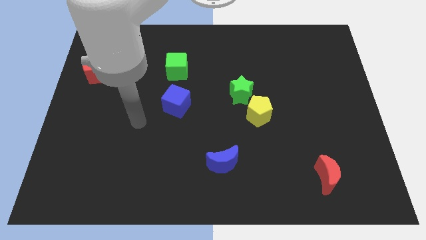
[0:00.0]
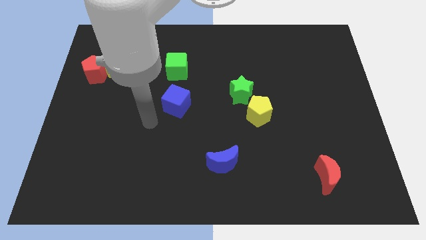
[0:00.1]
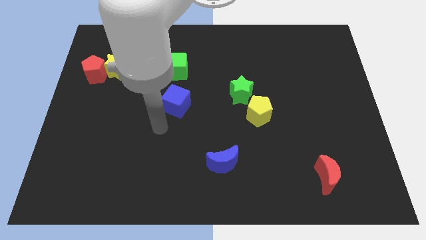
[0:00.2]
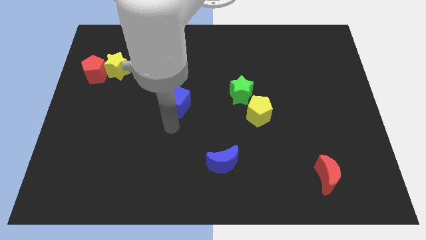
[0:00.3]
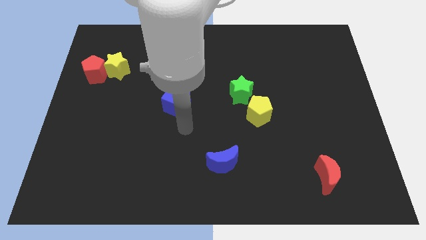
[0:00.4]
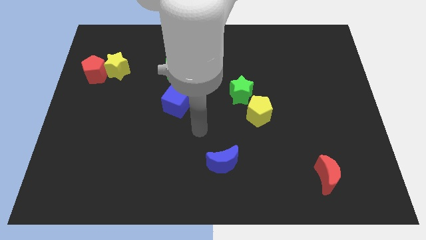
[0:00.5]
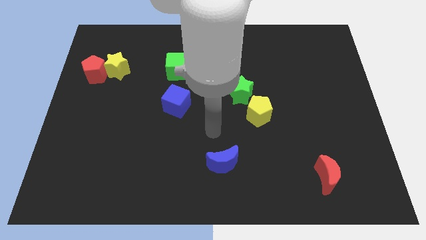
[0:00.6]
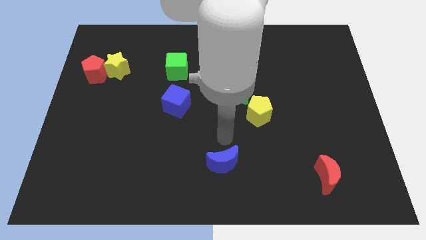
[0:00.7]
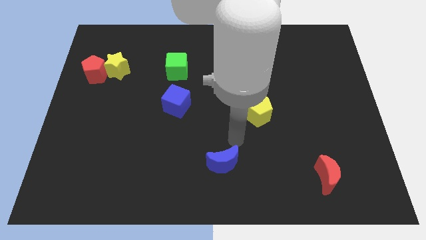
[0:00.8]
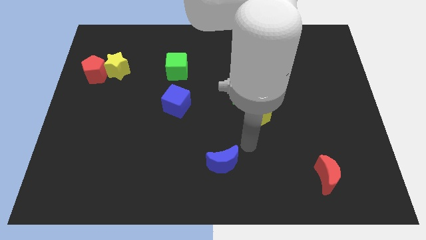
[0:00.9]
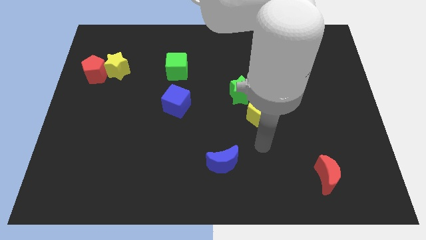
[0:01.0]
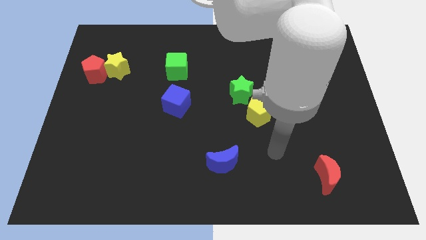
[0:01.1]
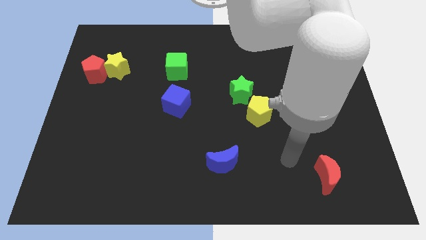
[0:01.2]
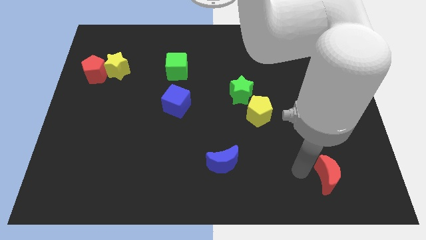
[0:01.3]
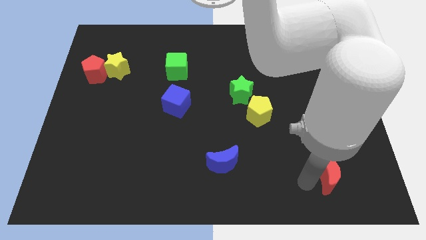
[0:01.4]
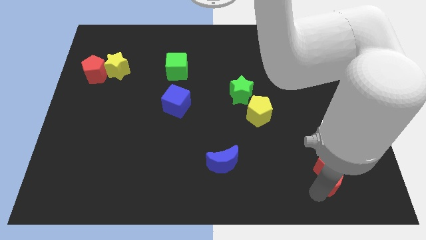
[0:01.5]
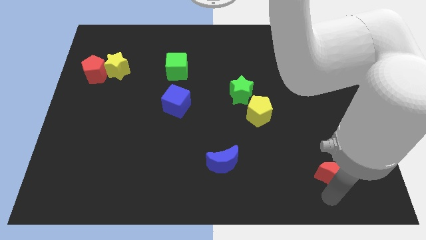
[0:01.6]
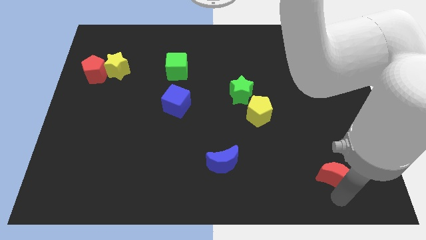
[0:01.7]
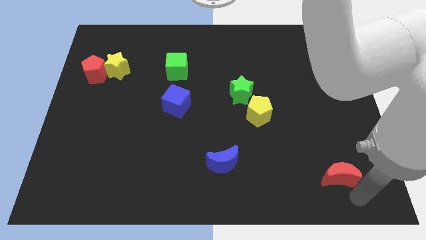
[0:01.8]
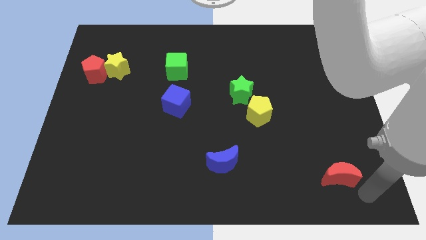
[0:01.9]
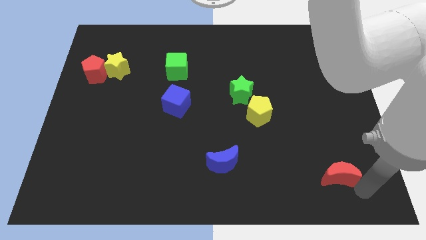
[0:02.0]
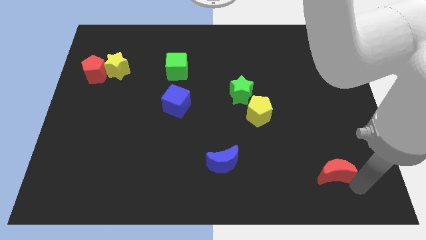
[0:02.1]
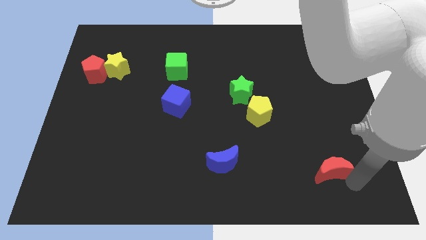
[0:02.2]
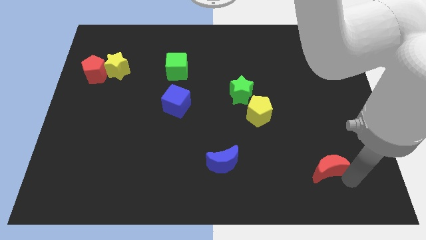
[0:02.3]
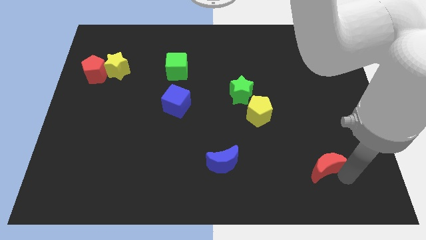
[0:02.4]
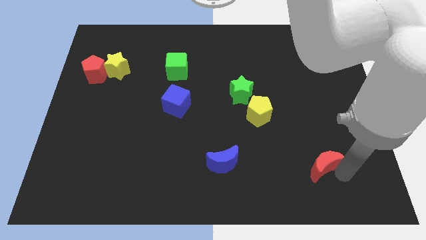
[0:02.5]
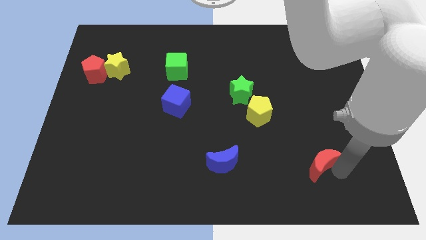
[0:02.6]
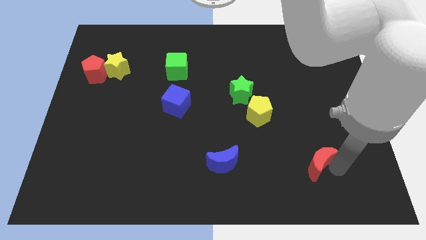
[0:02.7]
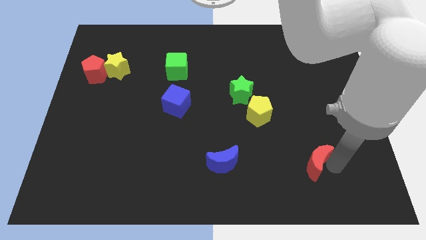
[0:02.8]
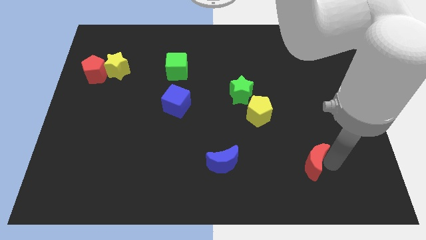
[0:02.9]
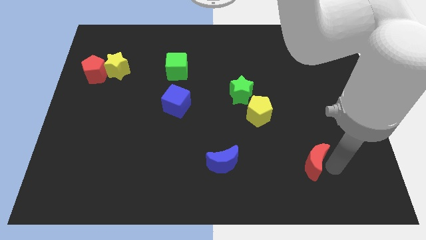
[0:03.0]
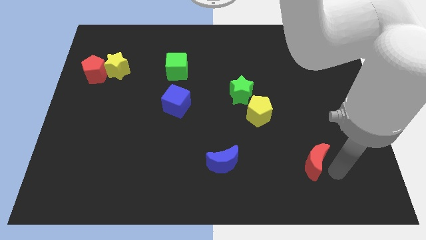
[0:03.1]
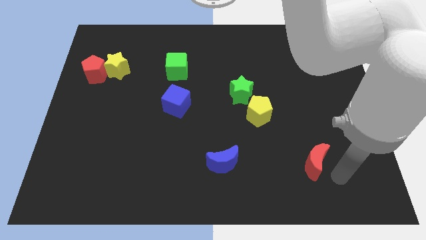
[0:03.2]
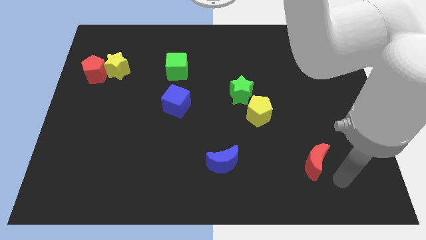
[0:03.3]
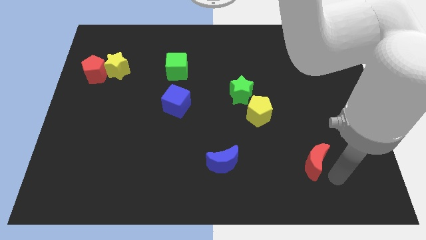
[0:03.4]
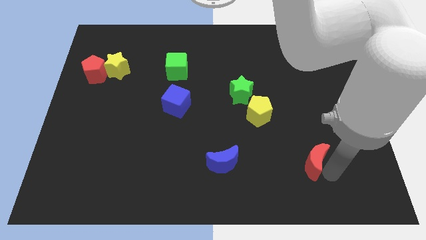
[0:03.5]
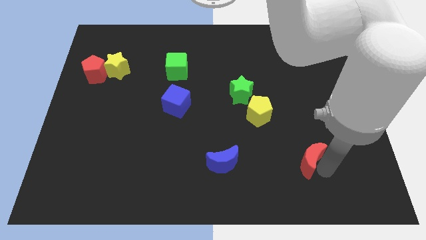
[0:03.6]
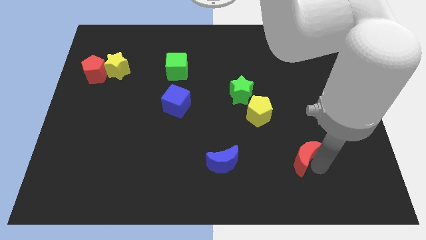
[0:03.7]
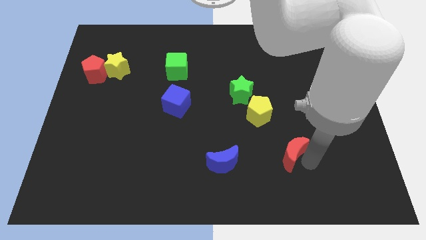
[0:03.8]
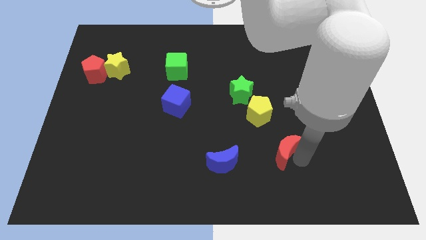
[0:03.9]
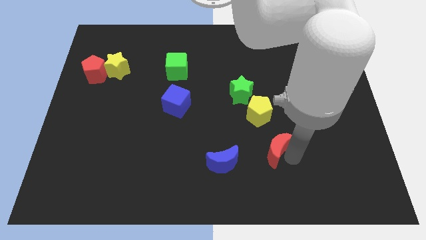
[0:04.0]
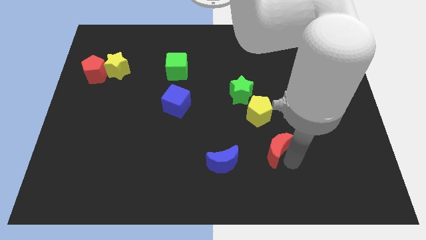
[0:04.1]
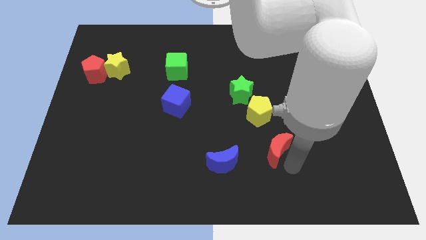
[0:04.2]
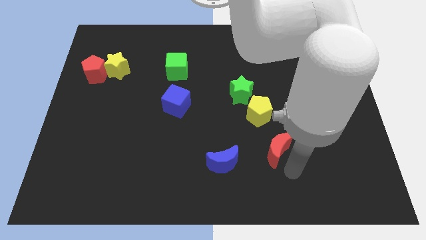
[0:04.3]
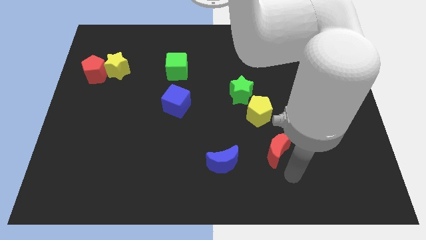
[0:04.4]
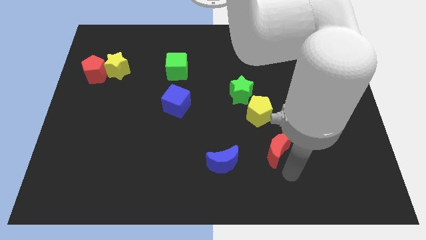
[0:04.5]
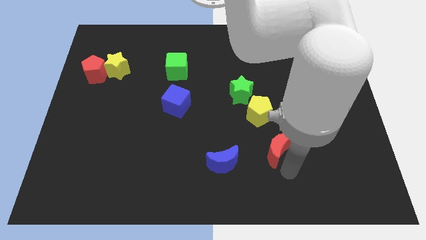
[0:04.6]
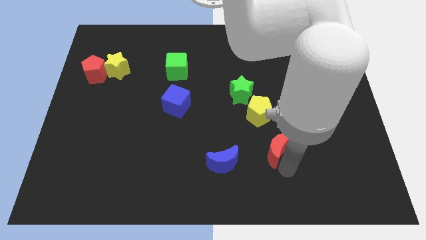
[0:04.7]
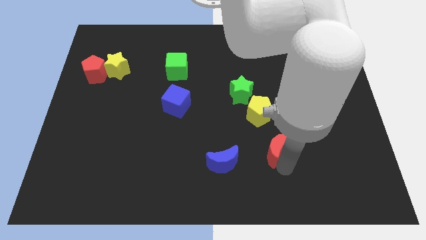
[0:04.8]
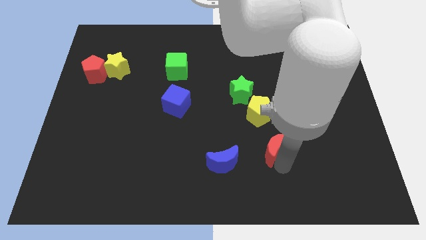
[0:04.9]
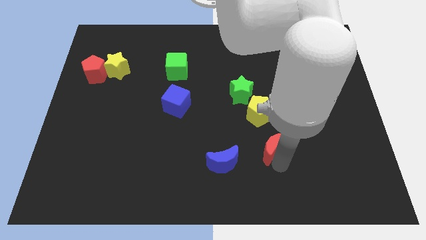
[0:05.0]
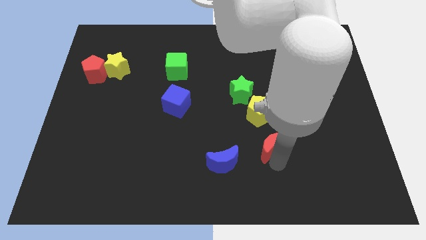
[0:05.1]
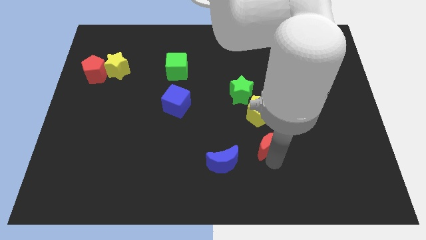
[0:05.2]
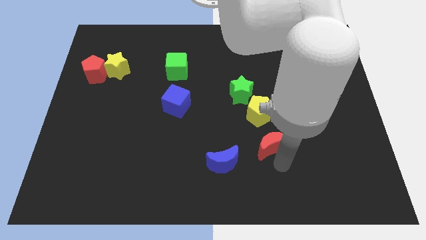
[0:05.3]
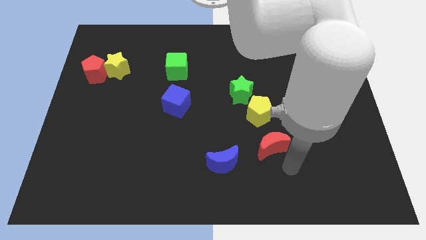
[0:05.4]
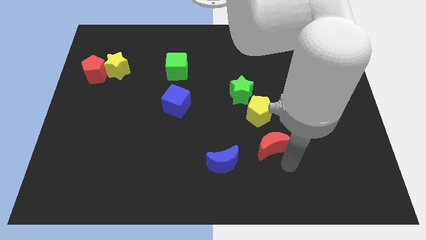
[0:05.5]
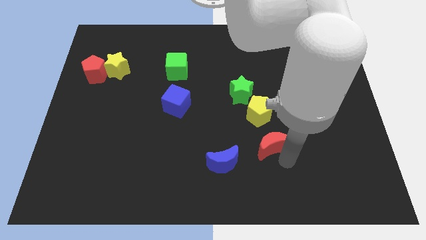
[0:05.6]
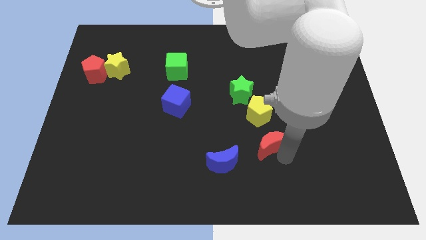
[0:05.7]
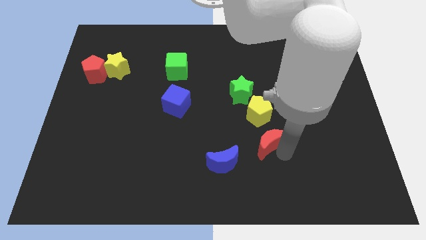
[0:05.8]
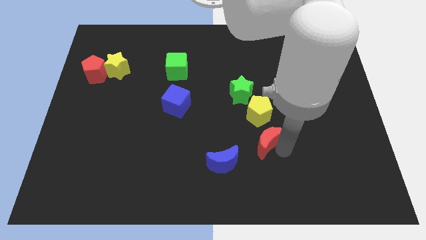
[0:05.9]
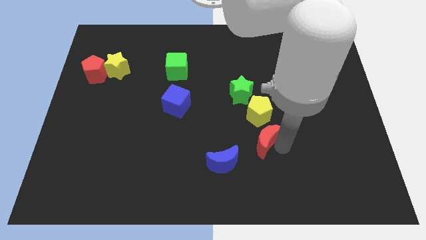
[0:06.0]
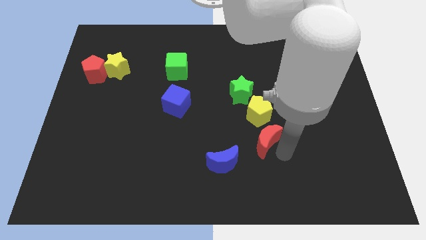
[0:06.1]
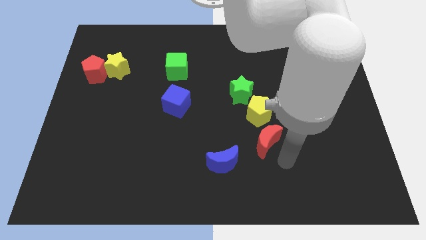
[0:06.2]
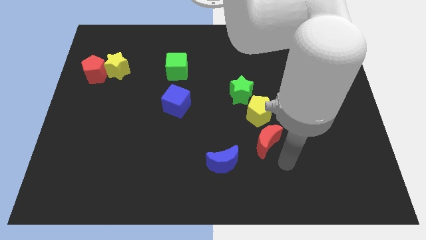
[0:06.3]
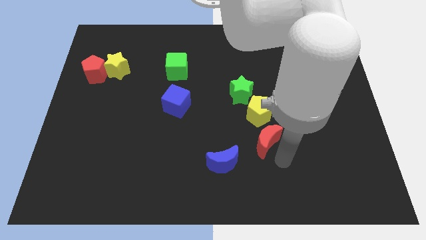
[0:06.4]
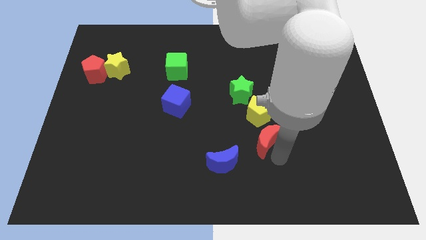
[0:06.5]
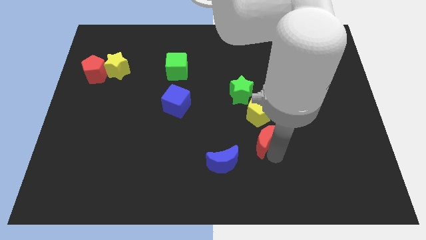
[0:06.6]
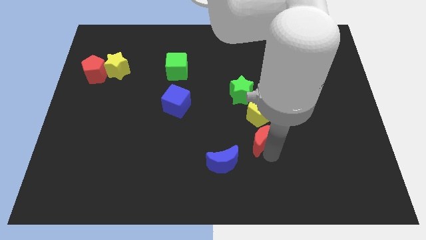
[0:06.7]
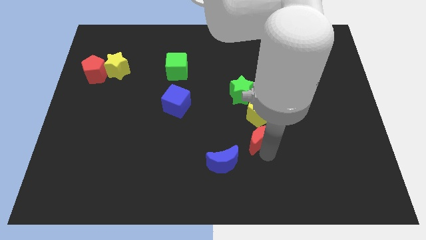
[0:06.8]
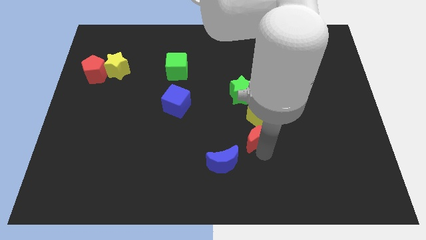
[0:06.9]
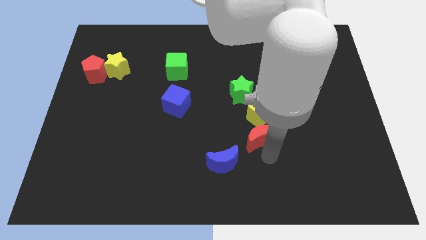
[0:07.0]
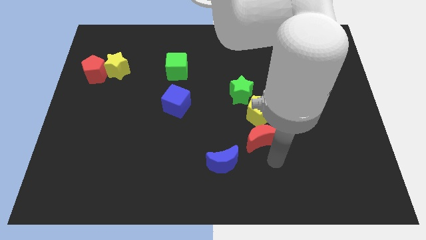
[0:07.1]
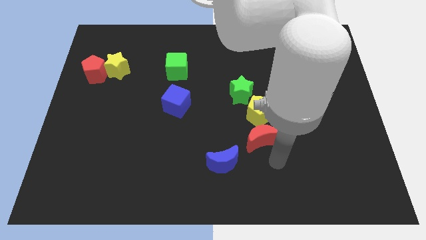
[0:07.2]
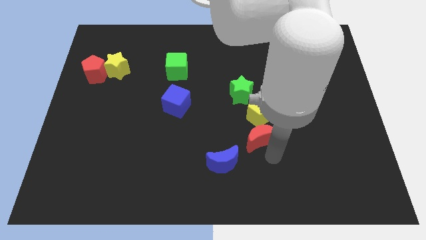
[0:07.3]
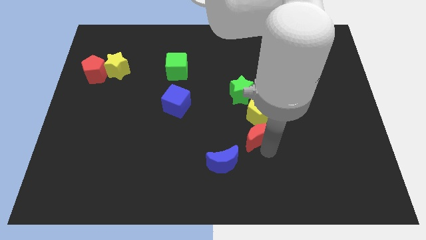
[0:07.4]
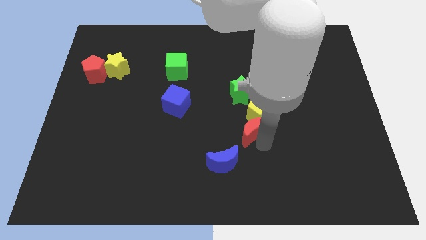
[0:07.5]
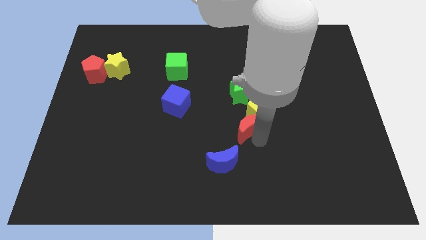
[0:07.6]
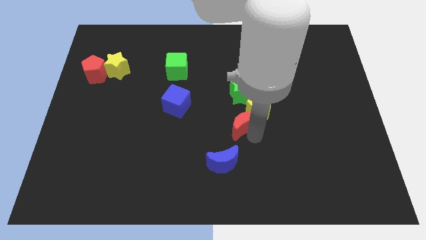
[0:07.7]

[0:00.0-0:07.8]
slide the red moon up and then left

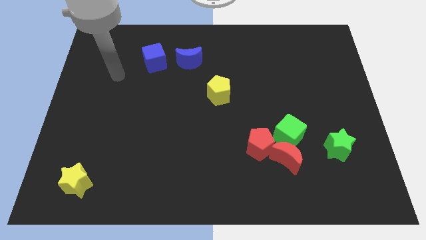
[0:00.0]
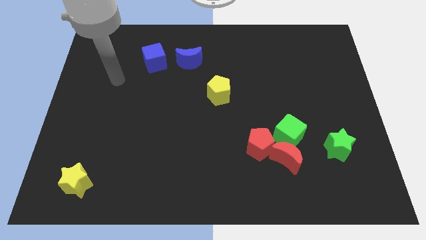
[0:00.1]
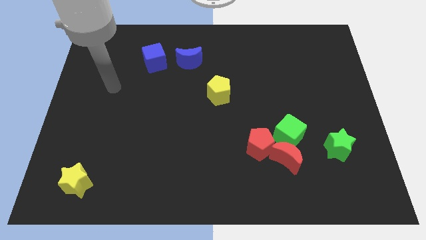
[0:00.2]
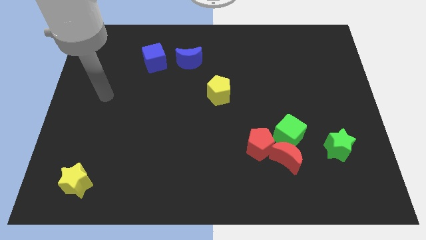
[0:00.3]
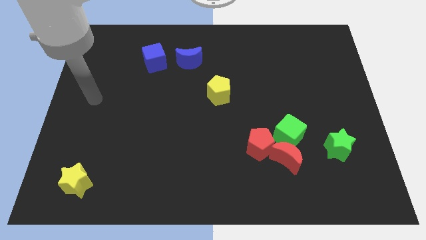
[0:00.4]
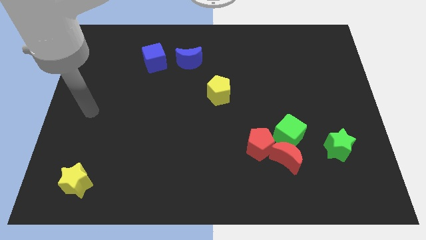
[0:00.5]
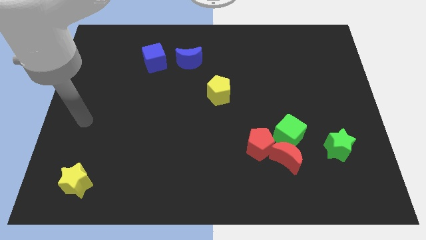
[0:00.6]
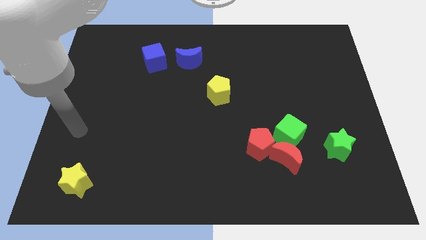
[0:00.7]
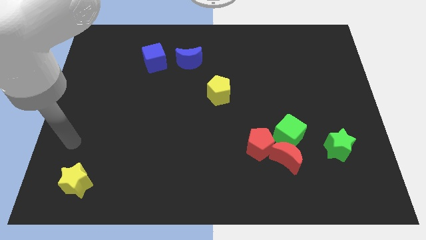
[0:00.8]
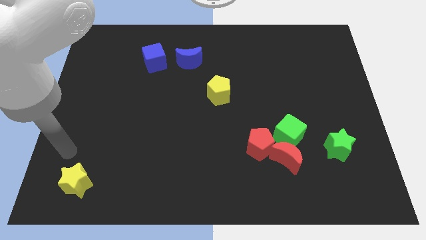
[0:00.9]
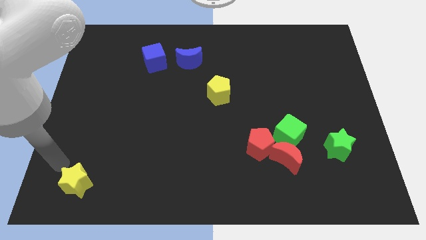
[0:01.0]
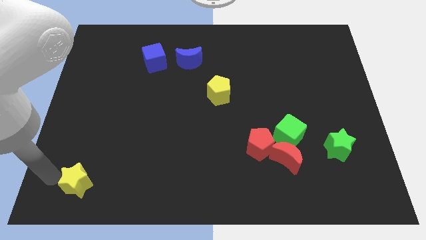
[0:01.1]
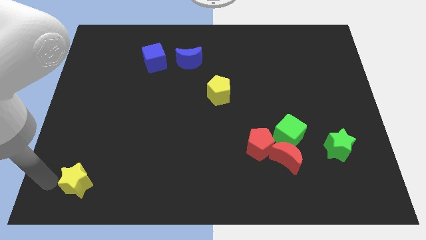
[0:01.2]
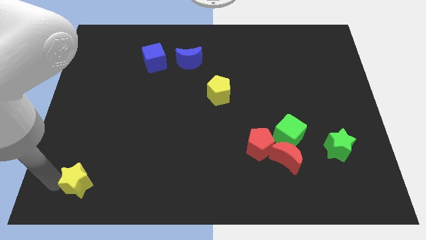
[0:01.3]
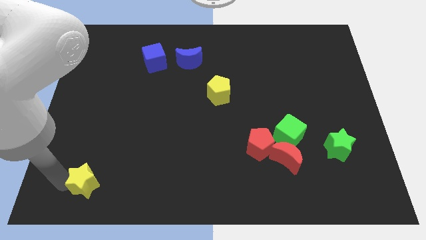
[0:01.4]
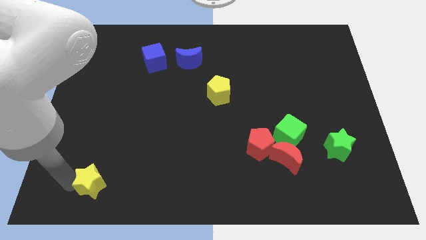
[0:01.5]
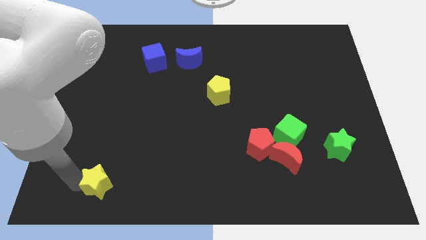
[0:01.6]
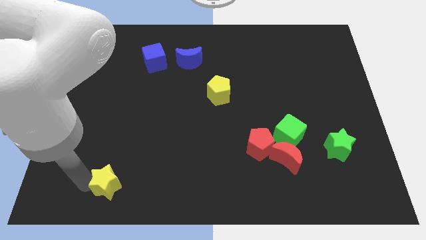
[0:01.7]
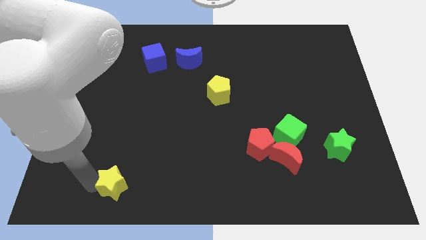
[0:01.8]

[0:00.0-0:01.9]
move the yellow star a bit right
